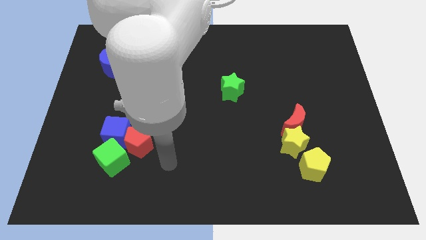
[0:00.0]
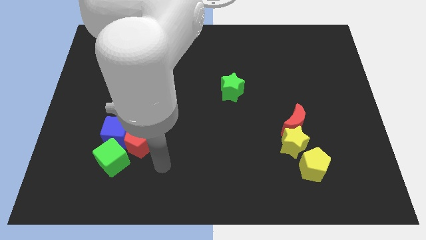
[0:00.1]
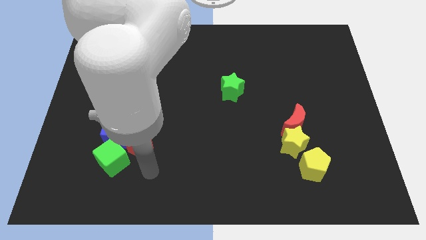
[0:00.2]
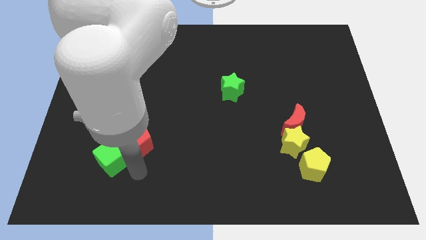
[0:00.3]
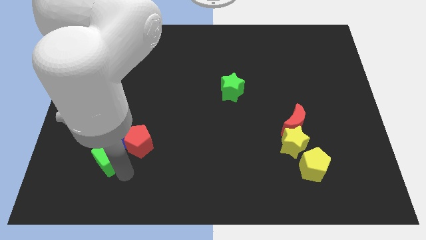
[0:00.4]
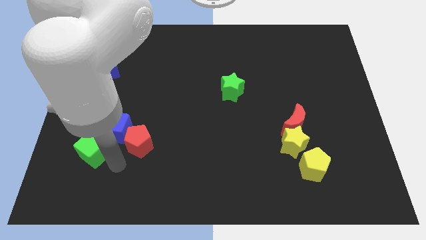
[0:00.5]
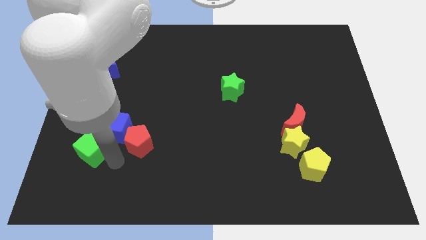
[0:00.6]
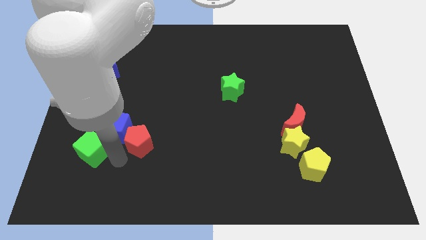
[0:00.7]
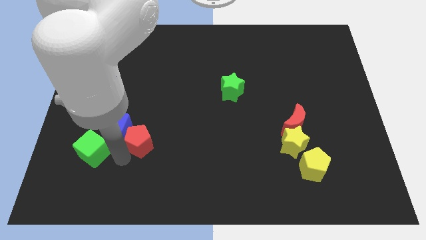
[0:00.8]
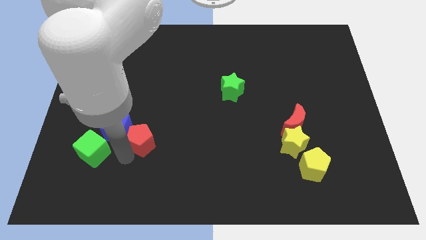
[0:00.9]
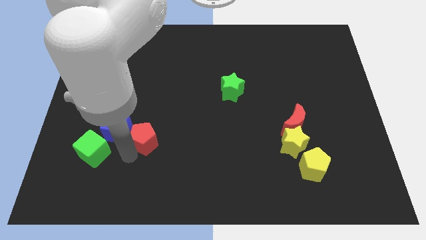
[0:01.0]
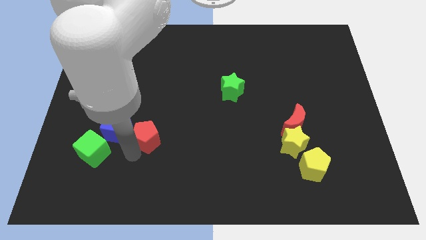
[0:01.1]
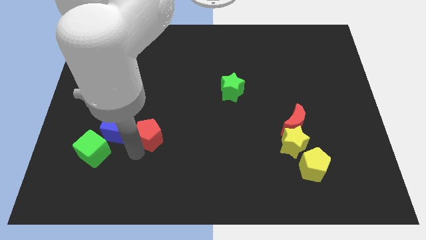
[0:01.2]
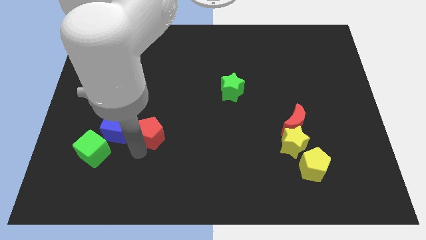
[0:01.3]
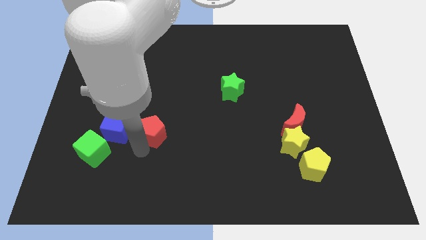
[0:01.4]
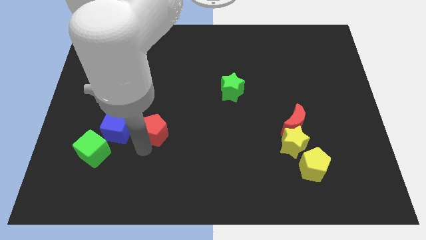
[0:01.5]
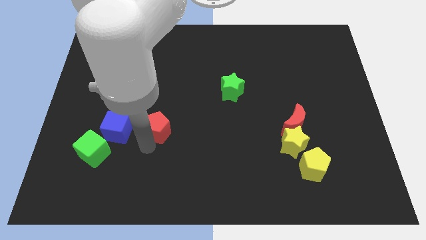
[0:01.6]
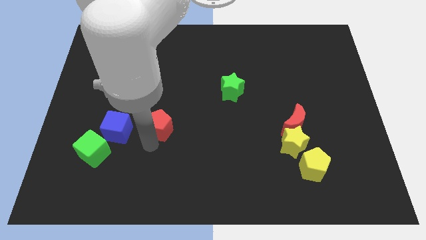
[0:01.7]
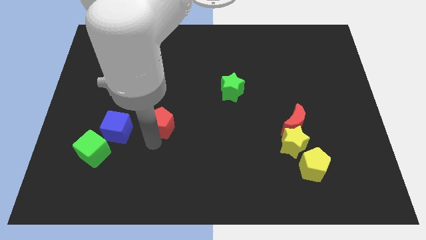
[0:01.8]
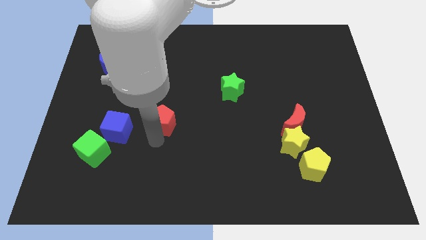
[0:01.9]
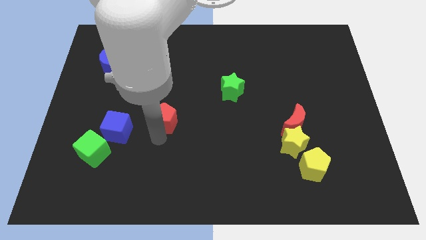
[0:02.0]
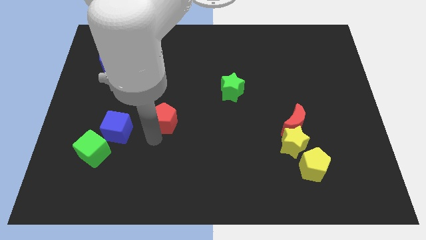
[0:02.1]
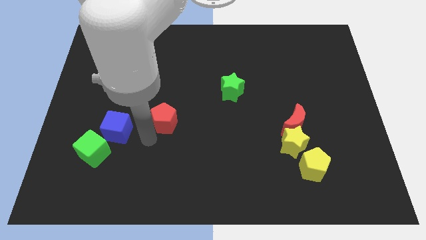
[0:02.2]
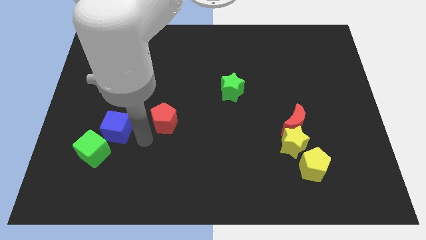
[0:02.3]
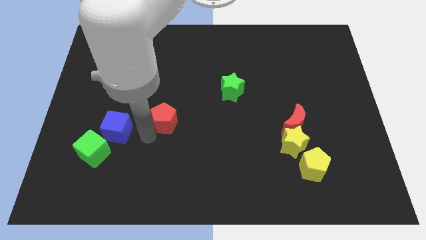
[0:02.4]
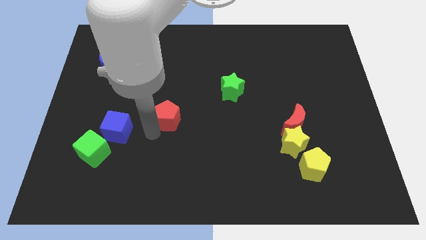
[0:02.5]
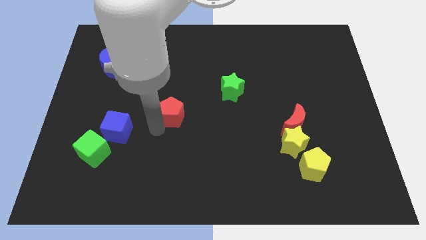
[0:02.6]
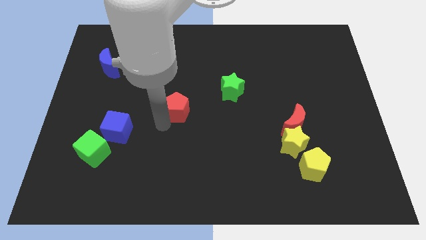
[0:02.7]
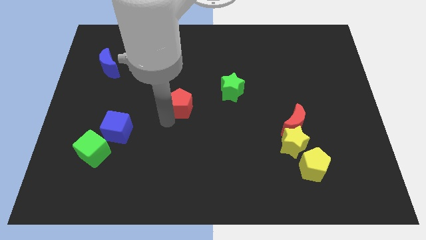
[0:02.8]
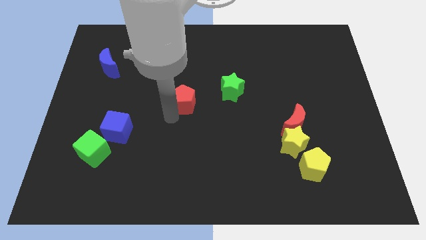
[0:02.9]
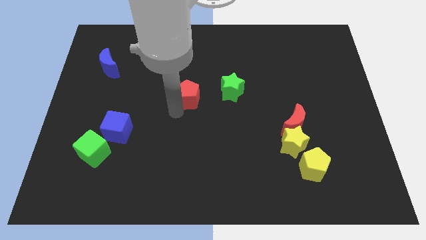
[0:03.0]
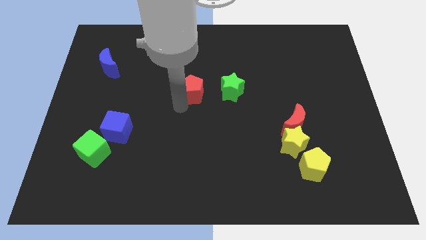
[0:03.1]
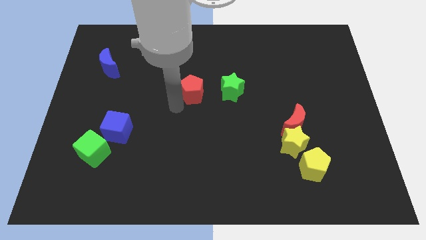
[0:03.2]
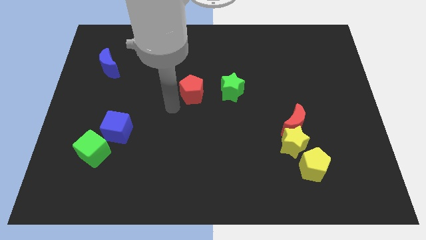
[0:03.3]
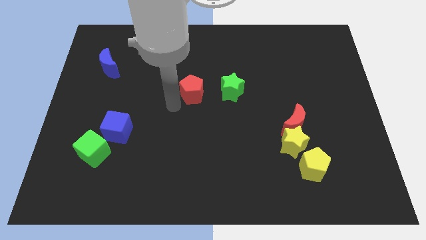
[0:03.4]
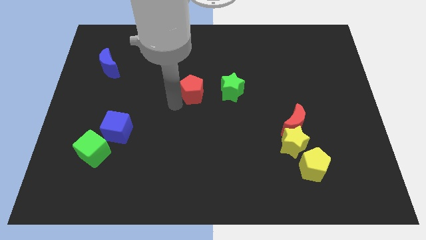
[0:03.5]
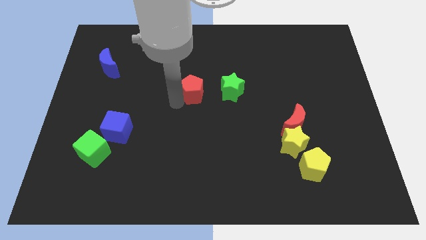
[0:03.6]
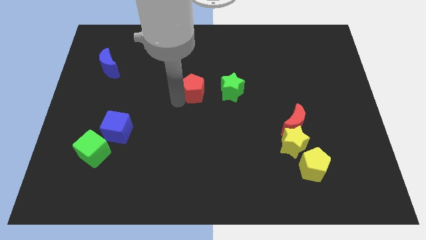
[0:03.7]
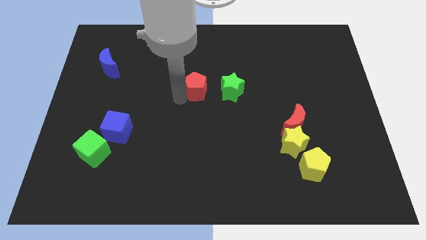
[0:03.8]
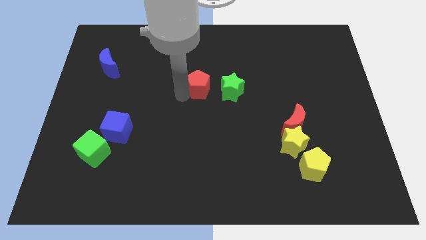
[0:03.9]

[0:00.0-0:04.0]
move the red pentagon up and right

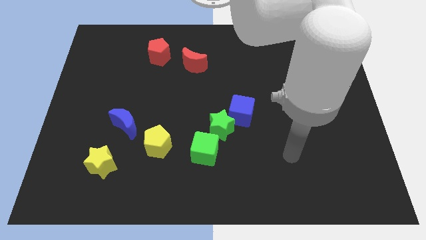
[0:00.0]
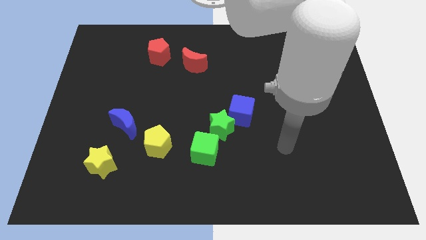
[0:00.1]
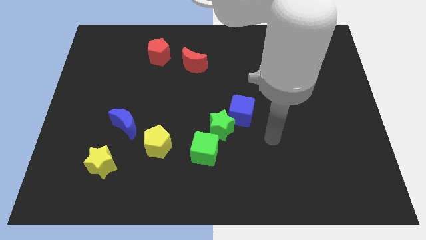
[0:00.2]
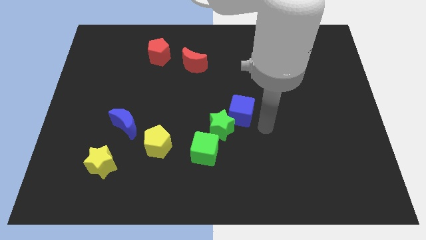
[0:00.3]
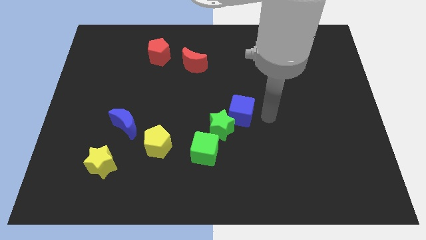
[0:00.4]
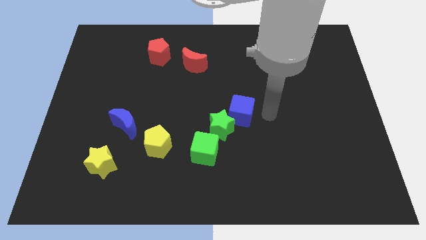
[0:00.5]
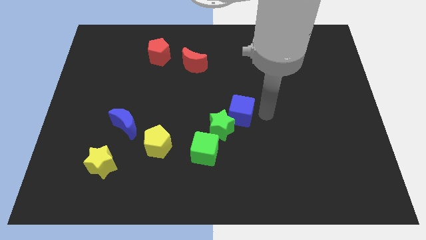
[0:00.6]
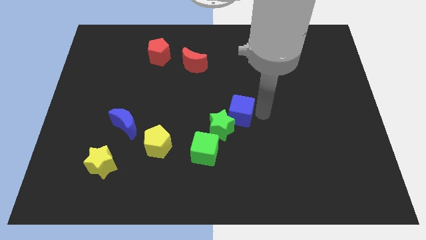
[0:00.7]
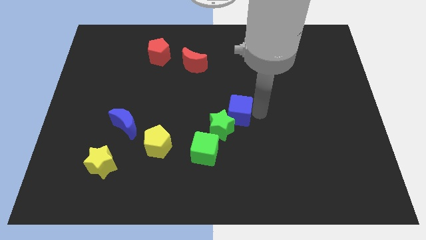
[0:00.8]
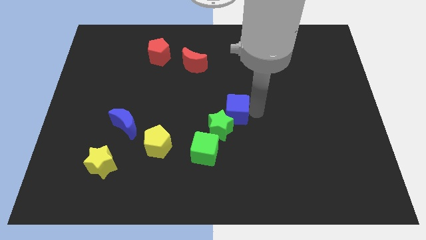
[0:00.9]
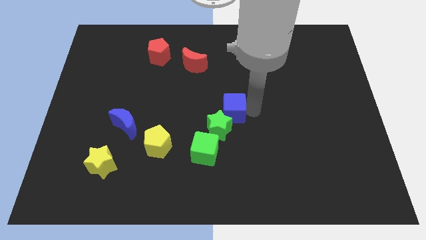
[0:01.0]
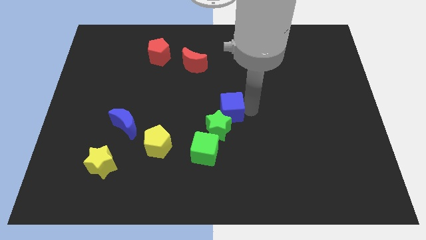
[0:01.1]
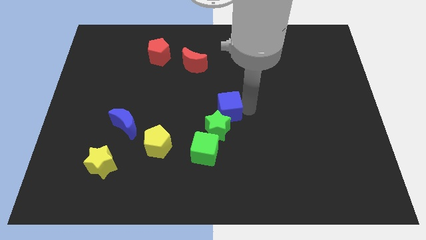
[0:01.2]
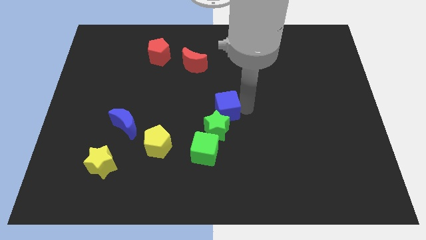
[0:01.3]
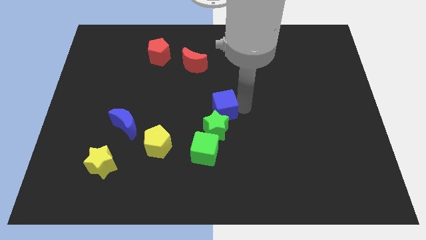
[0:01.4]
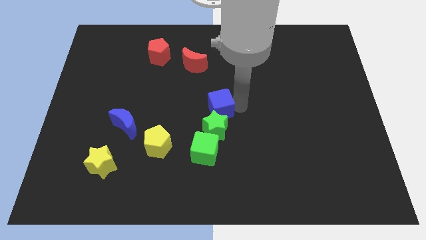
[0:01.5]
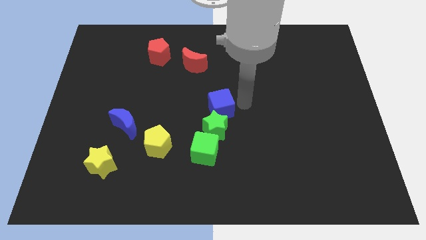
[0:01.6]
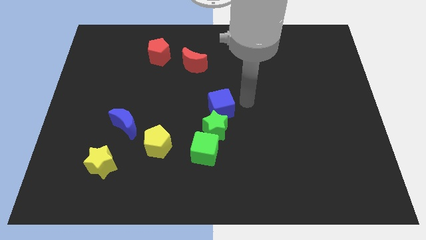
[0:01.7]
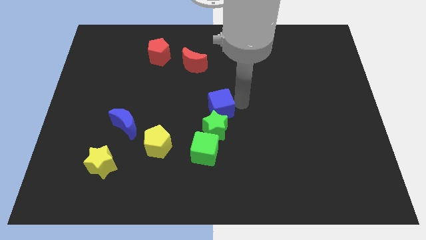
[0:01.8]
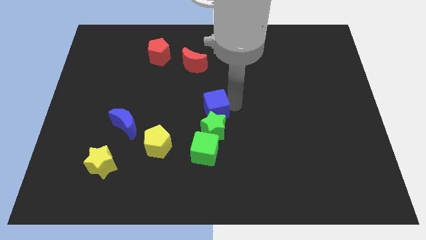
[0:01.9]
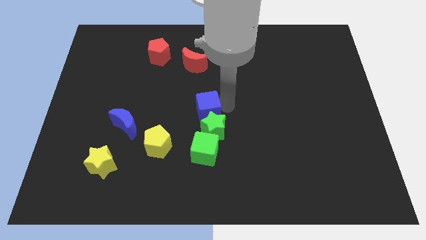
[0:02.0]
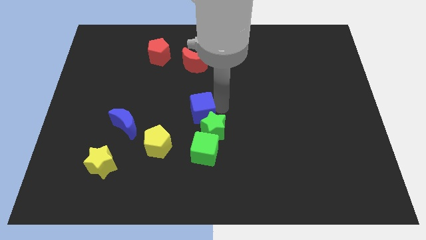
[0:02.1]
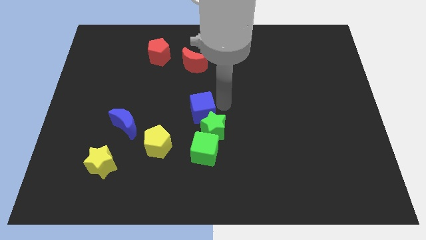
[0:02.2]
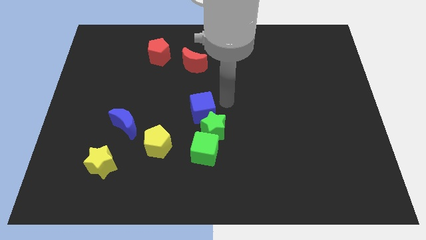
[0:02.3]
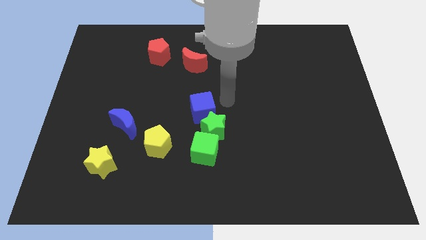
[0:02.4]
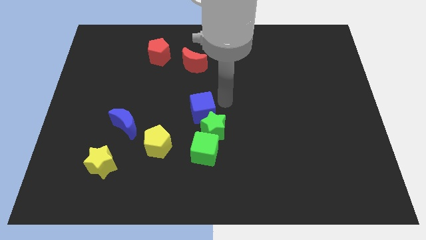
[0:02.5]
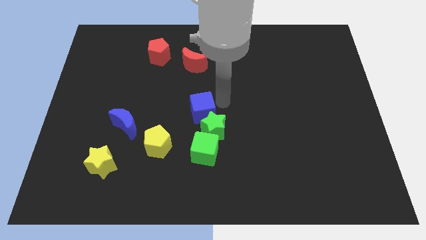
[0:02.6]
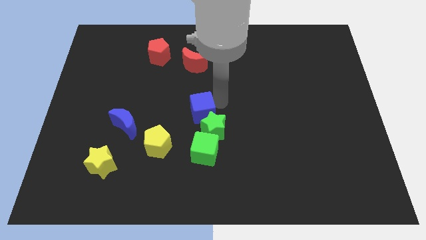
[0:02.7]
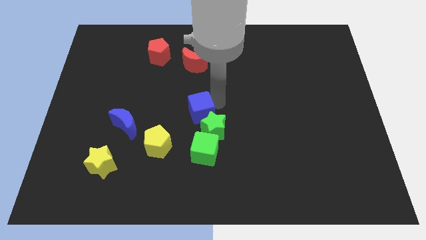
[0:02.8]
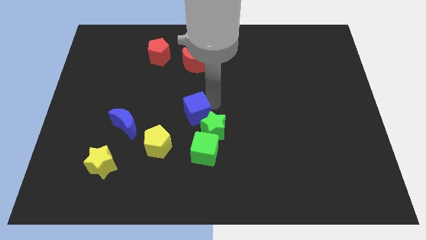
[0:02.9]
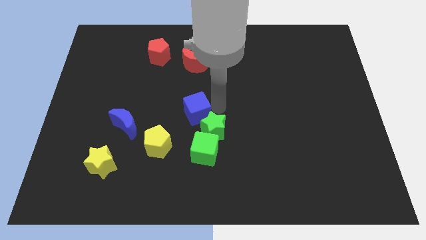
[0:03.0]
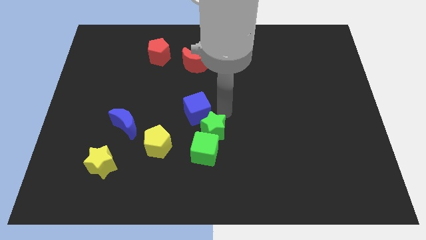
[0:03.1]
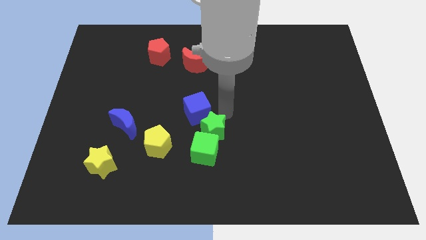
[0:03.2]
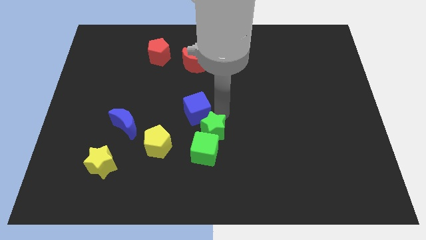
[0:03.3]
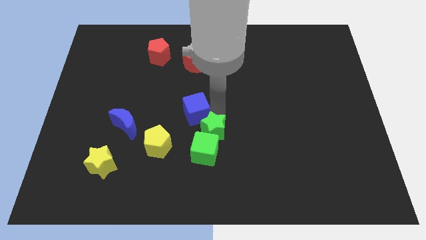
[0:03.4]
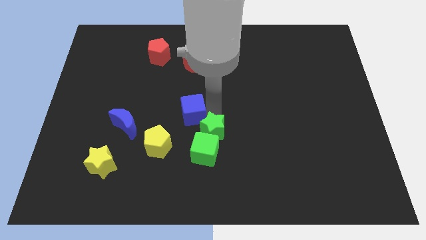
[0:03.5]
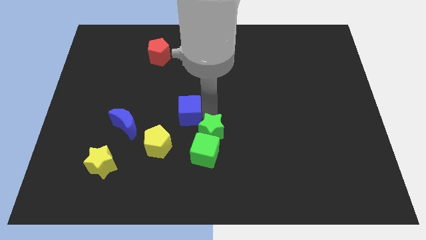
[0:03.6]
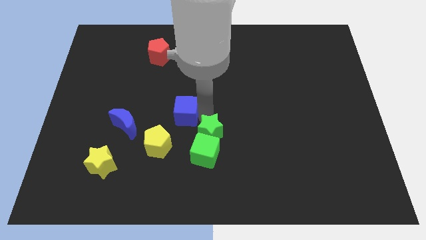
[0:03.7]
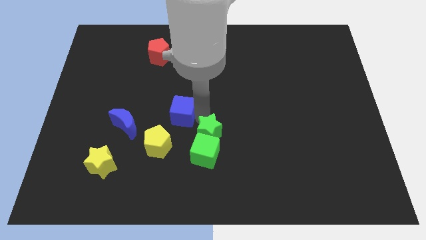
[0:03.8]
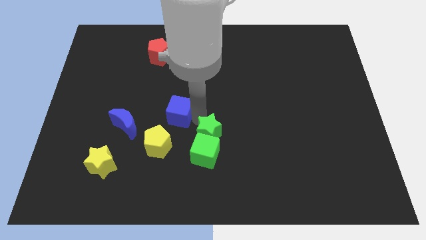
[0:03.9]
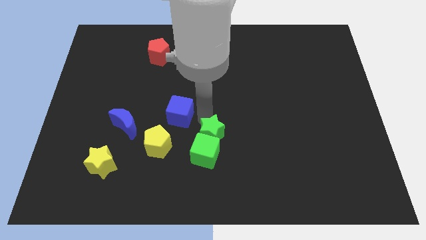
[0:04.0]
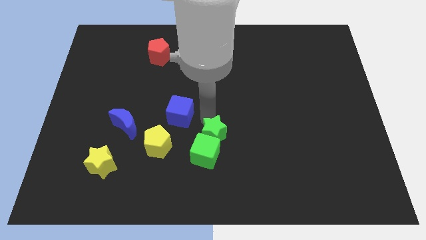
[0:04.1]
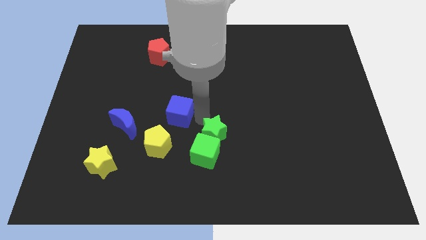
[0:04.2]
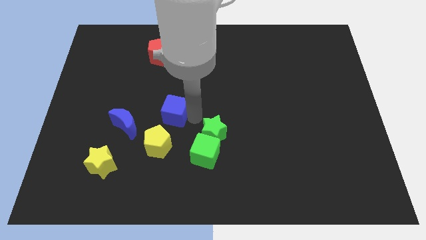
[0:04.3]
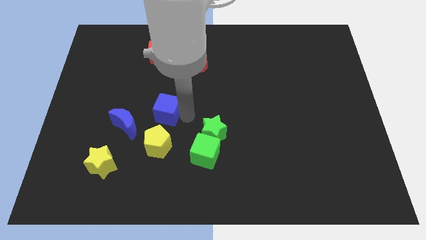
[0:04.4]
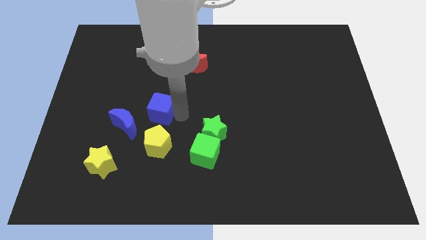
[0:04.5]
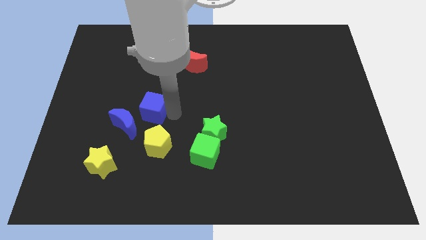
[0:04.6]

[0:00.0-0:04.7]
move the blue cube left
